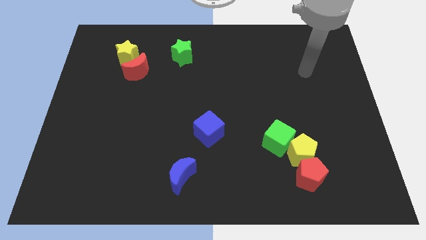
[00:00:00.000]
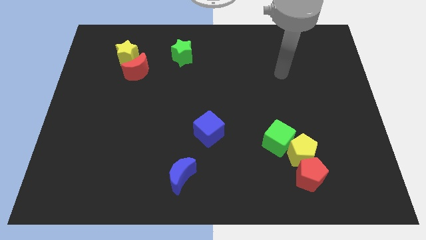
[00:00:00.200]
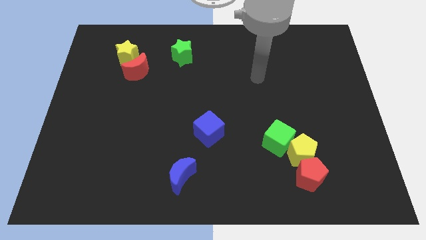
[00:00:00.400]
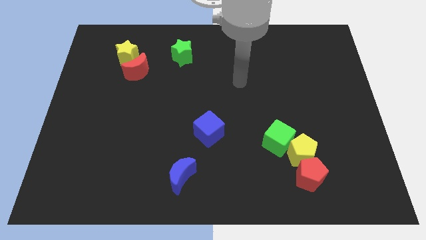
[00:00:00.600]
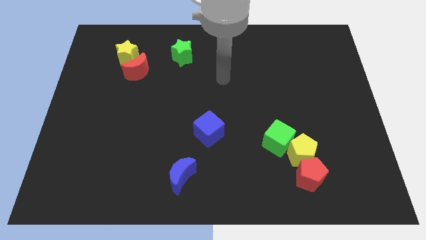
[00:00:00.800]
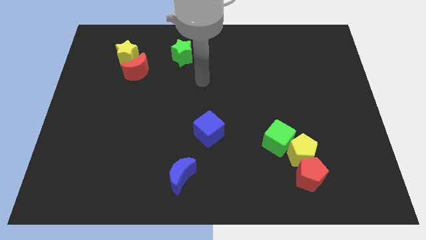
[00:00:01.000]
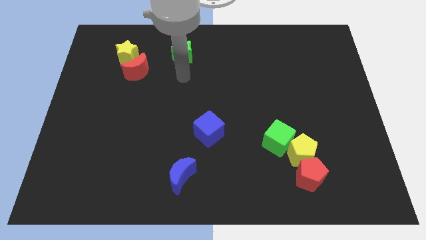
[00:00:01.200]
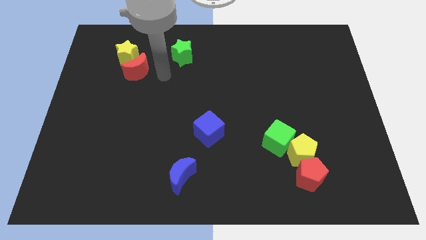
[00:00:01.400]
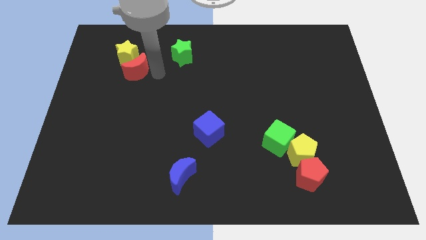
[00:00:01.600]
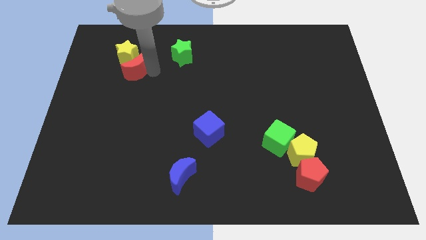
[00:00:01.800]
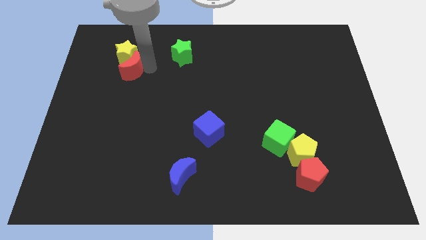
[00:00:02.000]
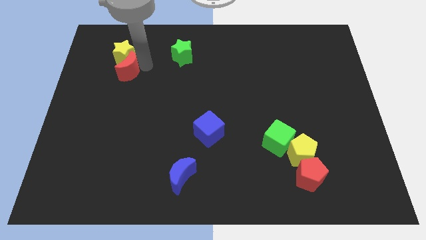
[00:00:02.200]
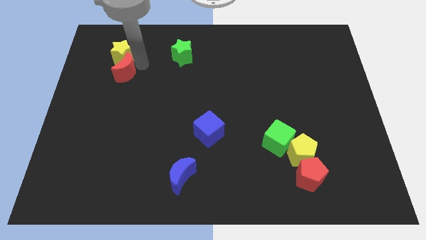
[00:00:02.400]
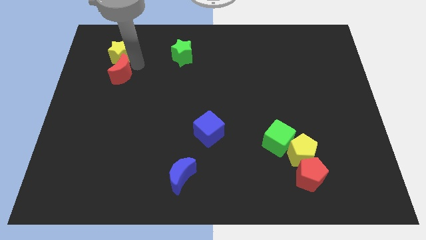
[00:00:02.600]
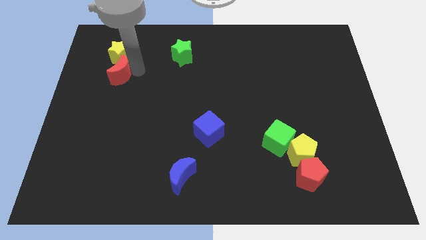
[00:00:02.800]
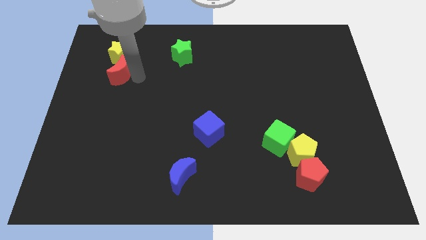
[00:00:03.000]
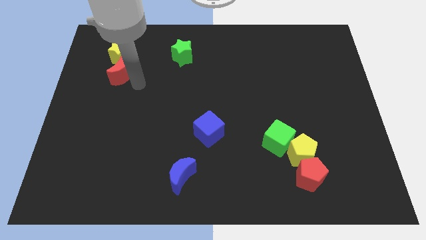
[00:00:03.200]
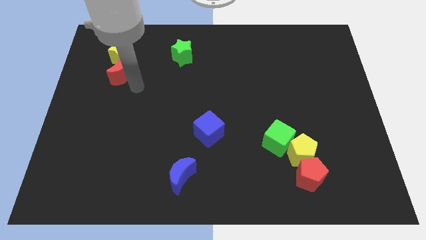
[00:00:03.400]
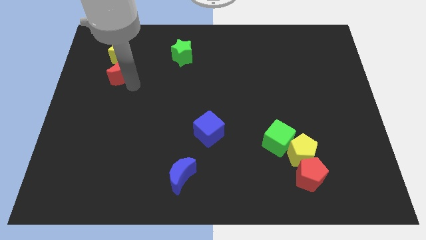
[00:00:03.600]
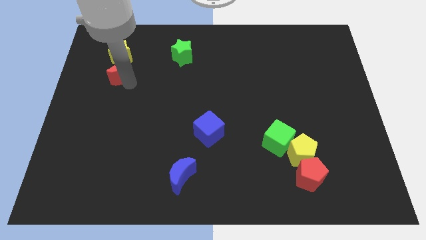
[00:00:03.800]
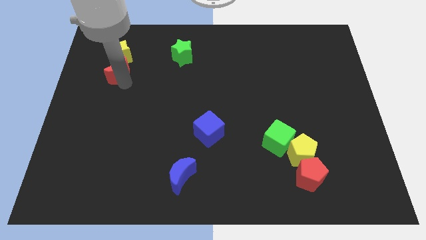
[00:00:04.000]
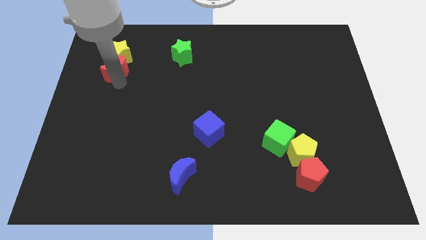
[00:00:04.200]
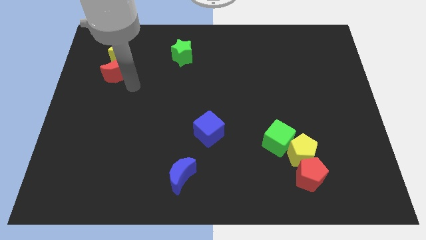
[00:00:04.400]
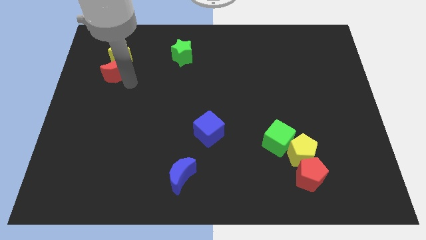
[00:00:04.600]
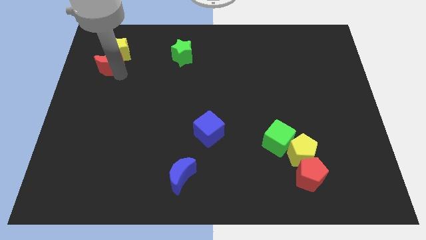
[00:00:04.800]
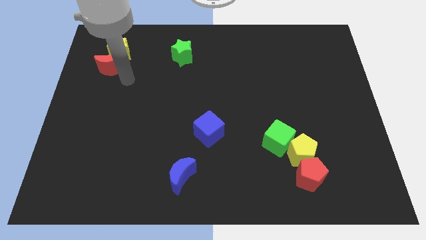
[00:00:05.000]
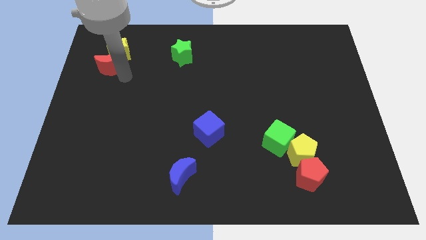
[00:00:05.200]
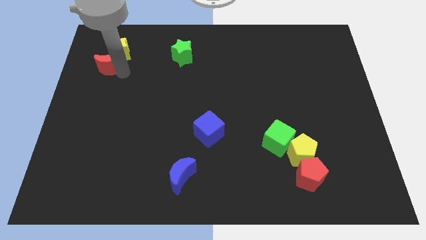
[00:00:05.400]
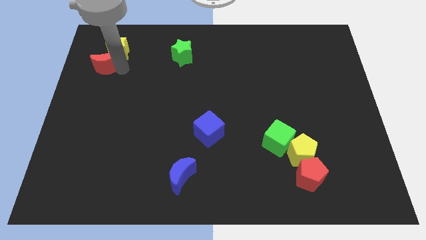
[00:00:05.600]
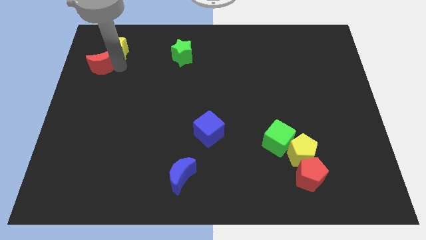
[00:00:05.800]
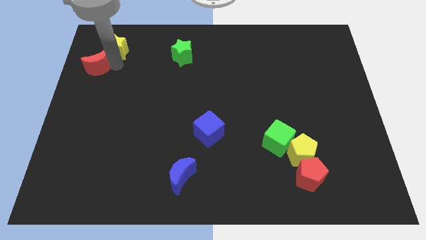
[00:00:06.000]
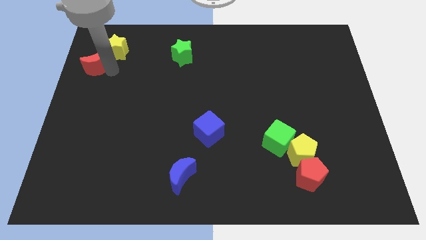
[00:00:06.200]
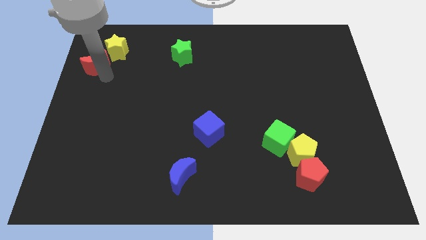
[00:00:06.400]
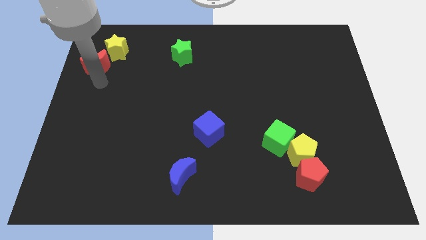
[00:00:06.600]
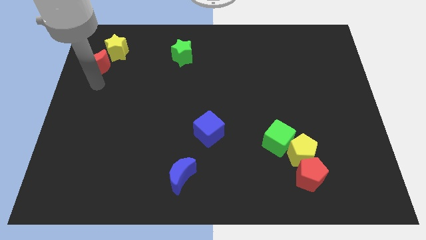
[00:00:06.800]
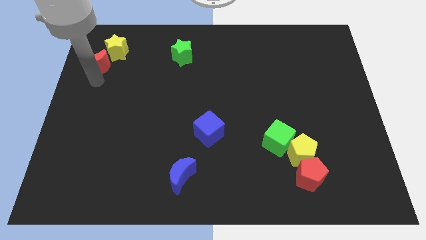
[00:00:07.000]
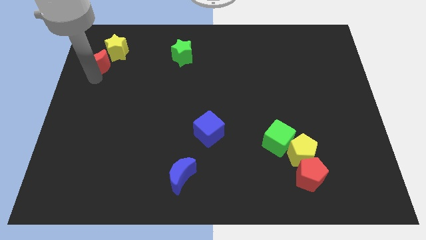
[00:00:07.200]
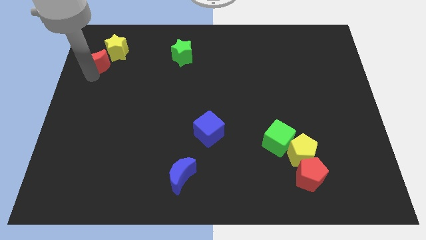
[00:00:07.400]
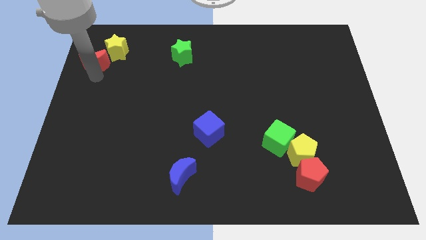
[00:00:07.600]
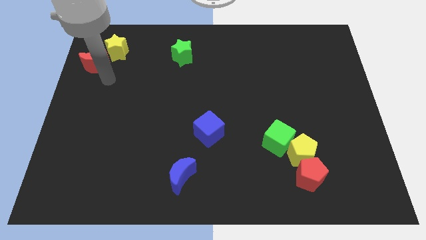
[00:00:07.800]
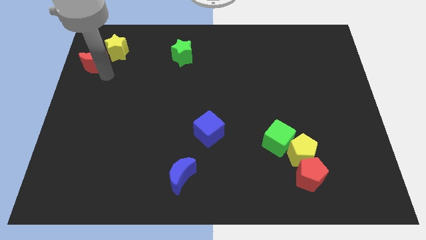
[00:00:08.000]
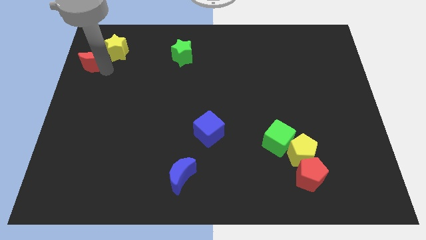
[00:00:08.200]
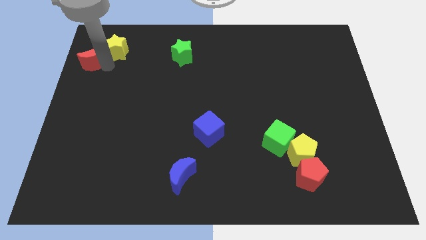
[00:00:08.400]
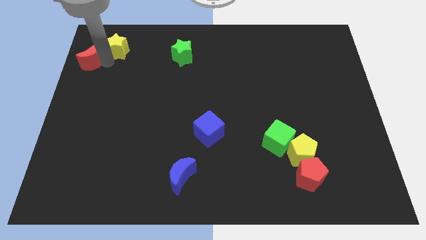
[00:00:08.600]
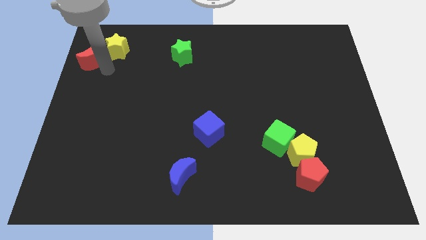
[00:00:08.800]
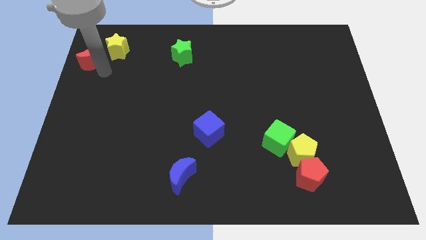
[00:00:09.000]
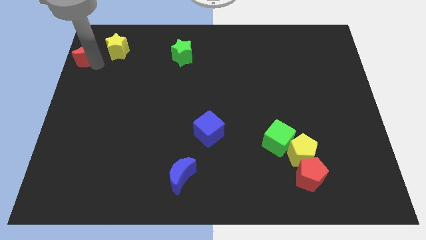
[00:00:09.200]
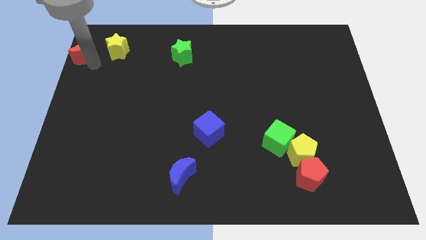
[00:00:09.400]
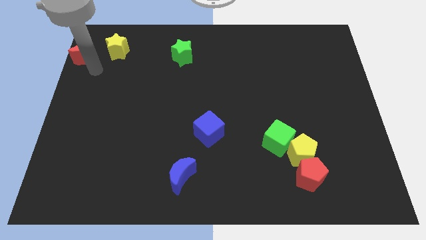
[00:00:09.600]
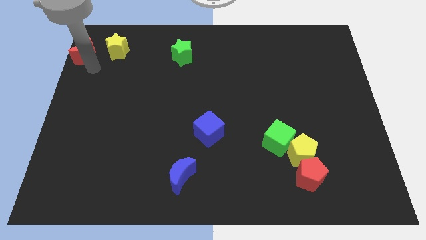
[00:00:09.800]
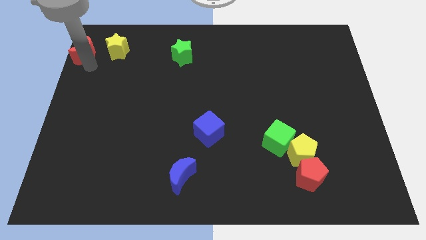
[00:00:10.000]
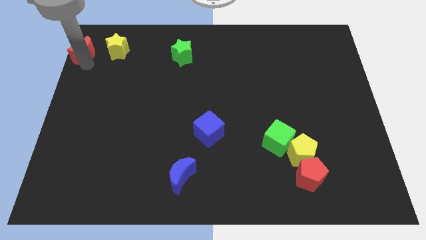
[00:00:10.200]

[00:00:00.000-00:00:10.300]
slide the red moon to the top left corner
